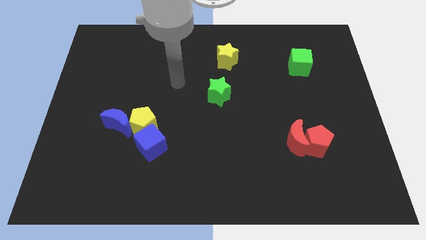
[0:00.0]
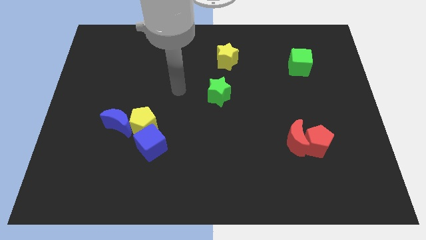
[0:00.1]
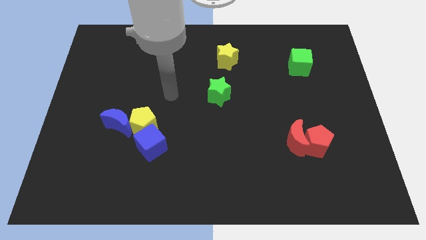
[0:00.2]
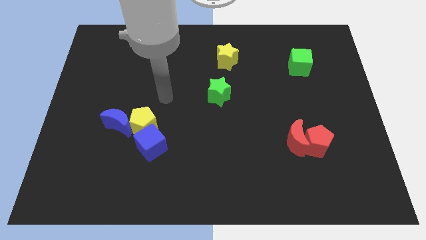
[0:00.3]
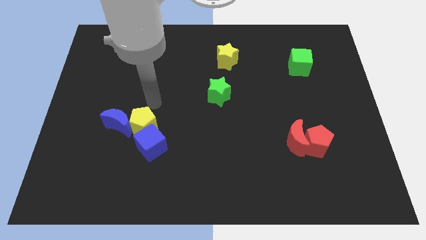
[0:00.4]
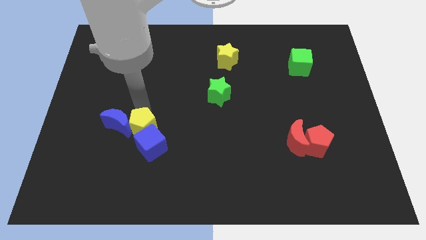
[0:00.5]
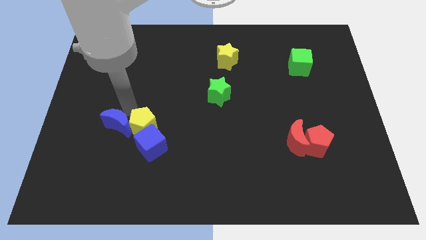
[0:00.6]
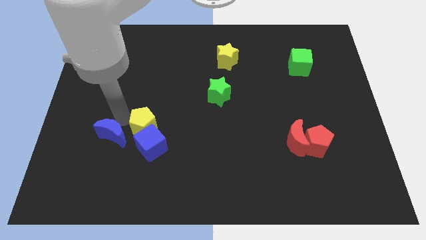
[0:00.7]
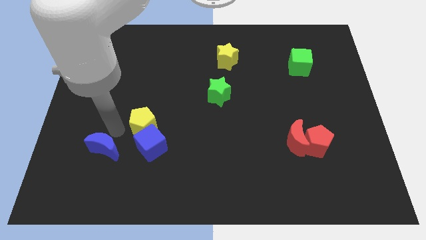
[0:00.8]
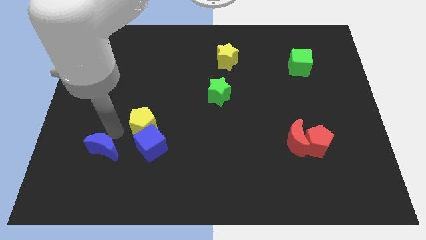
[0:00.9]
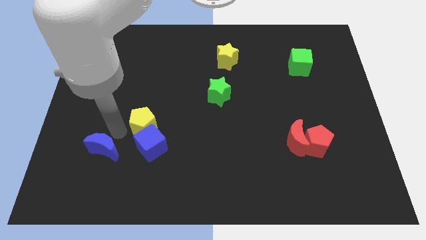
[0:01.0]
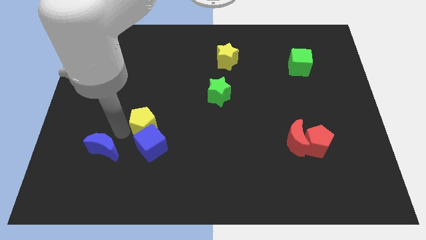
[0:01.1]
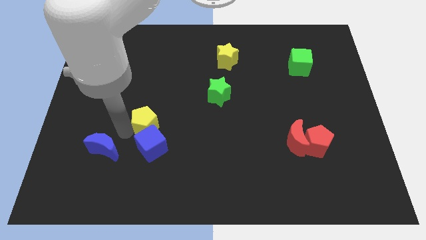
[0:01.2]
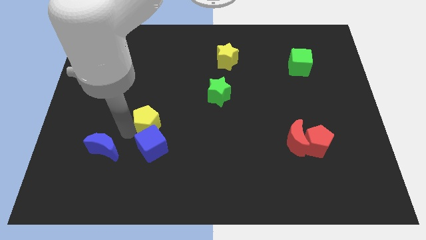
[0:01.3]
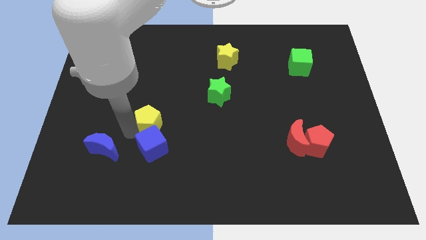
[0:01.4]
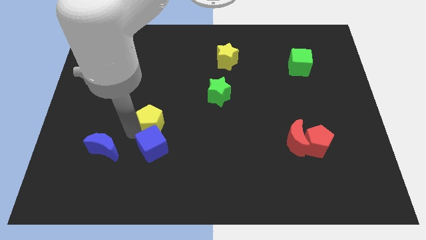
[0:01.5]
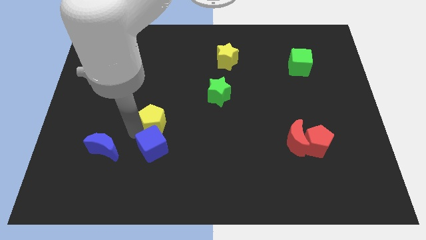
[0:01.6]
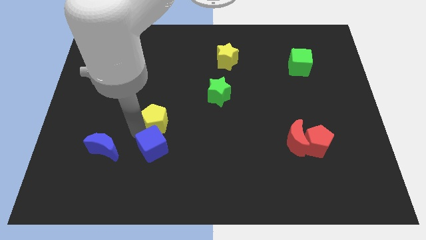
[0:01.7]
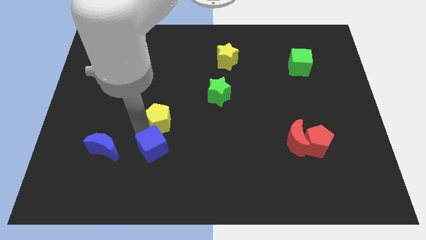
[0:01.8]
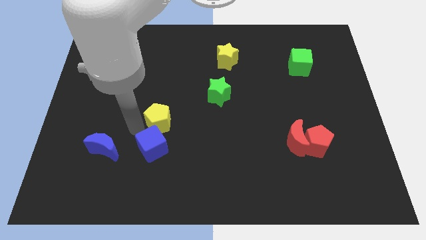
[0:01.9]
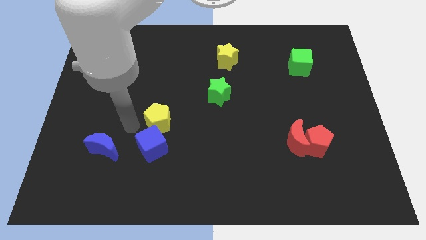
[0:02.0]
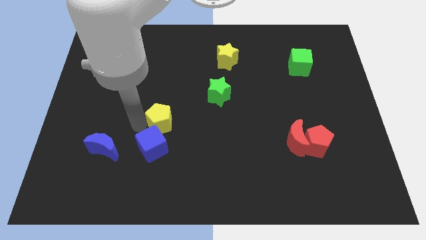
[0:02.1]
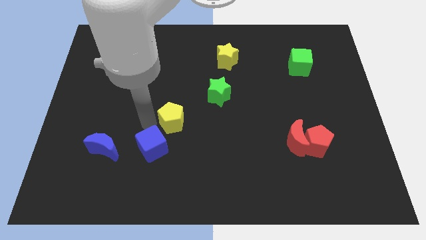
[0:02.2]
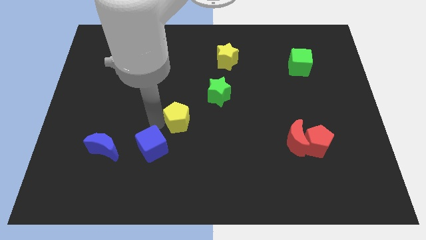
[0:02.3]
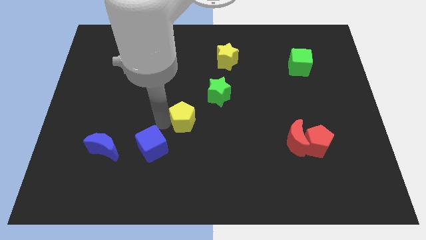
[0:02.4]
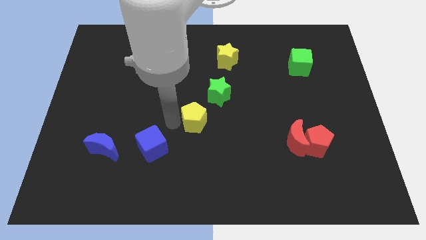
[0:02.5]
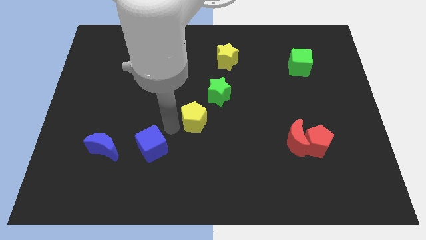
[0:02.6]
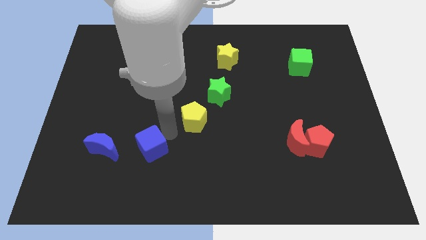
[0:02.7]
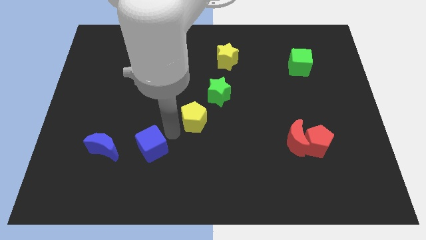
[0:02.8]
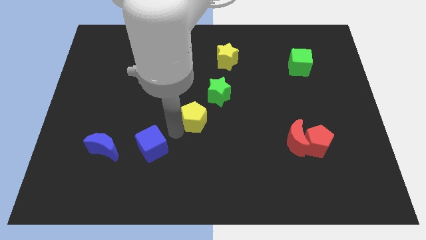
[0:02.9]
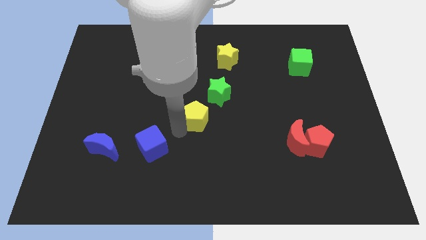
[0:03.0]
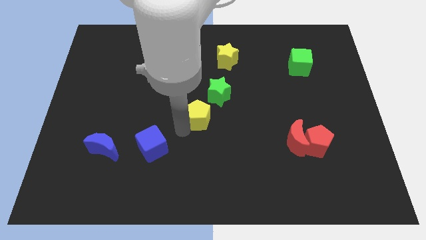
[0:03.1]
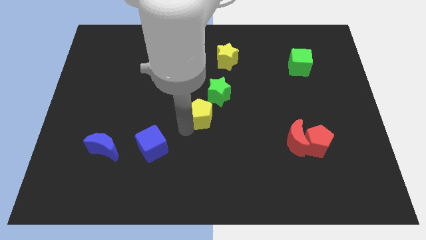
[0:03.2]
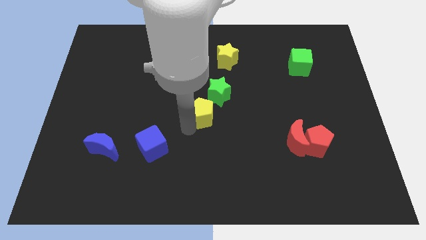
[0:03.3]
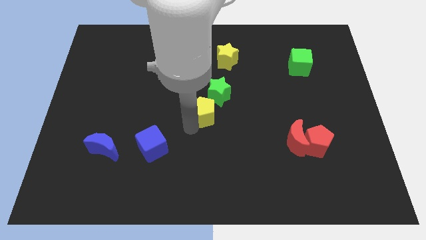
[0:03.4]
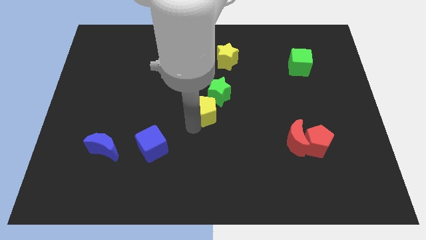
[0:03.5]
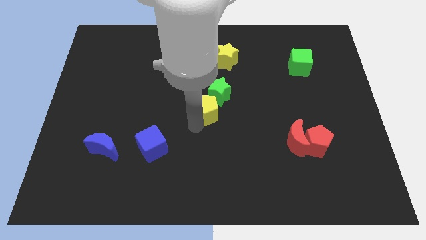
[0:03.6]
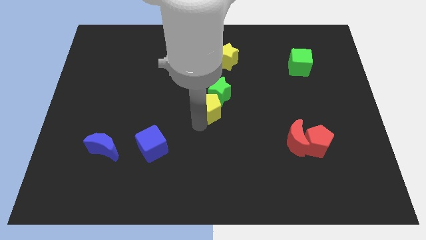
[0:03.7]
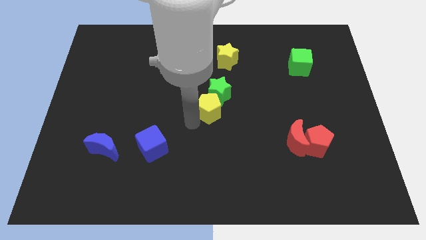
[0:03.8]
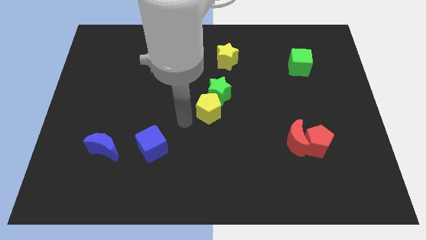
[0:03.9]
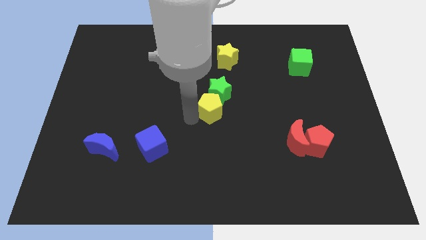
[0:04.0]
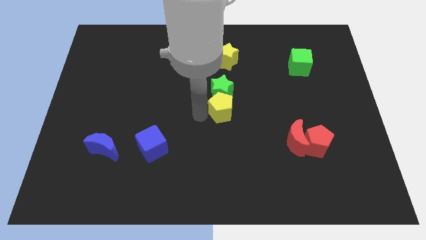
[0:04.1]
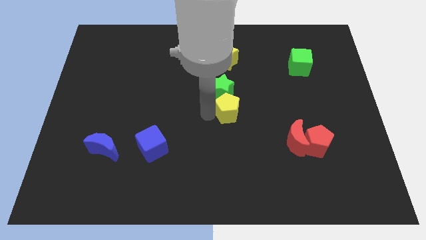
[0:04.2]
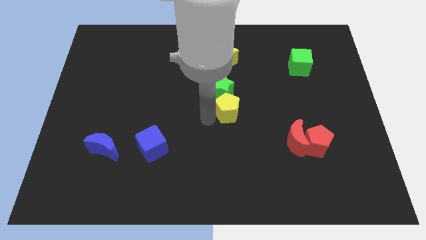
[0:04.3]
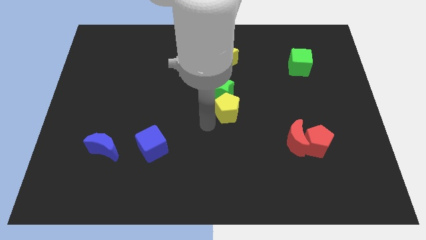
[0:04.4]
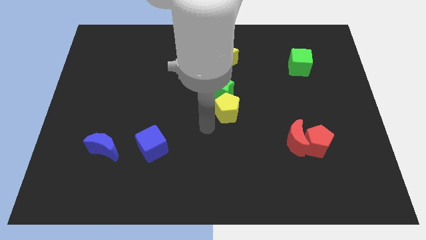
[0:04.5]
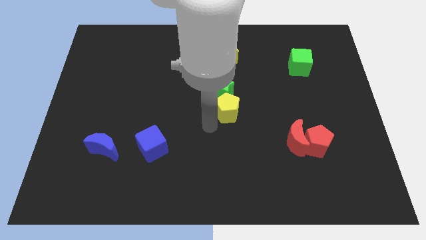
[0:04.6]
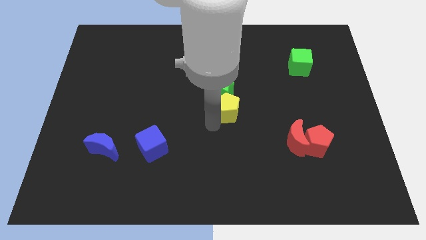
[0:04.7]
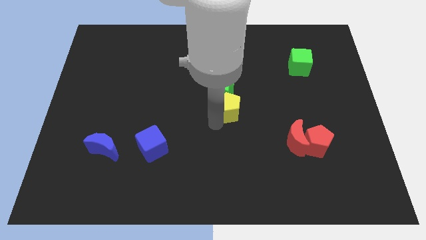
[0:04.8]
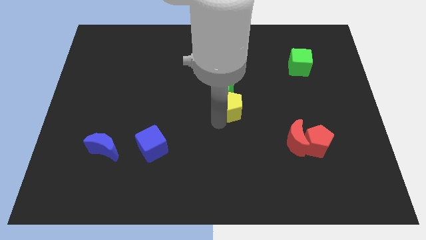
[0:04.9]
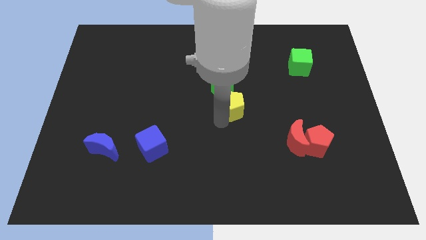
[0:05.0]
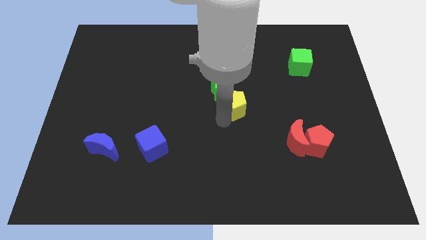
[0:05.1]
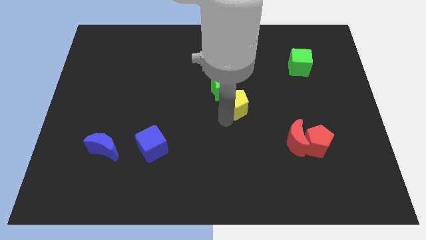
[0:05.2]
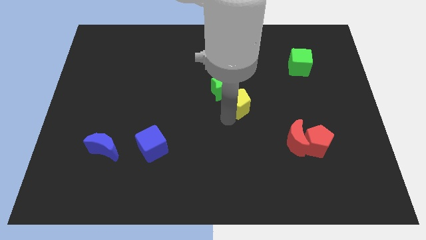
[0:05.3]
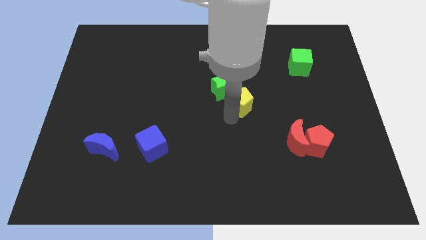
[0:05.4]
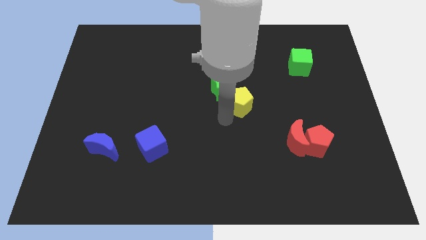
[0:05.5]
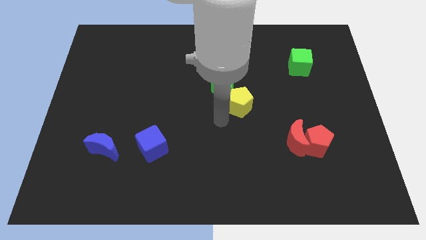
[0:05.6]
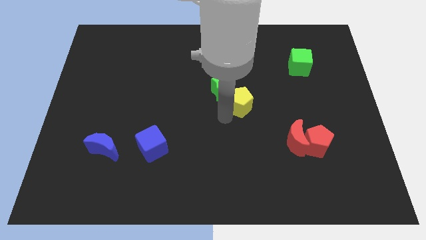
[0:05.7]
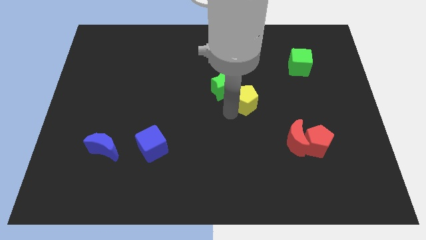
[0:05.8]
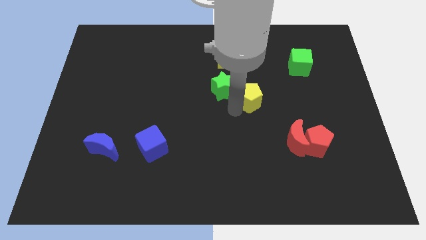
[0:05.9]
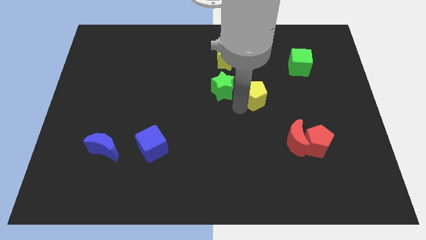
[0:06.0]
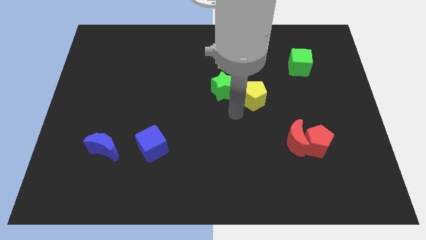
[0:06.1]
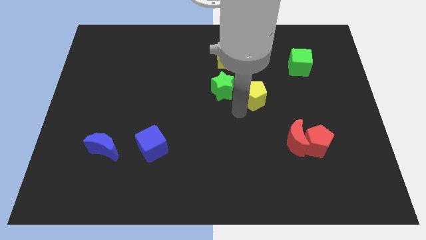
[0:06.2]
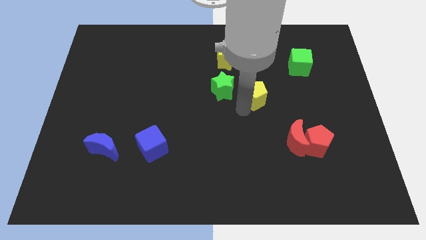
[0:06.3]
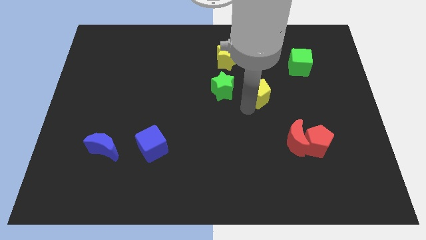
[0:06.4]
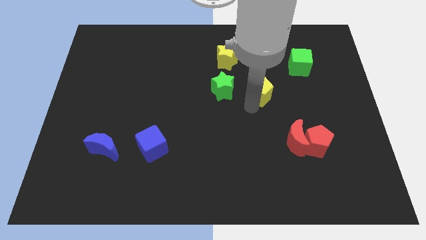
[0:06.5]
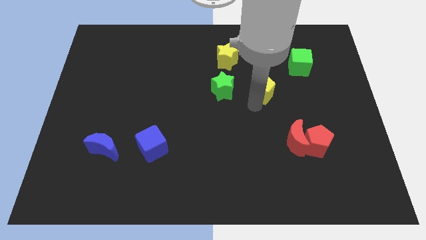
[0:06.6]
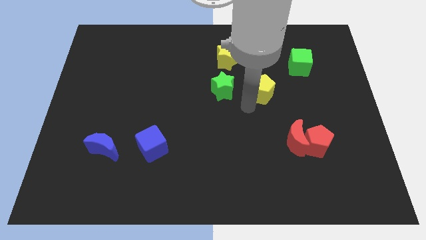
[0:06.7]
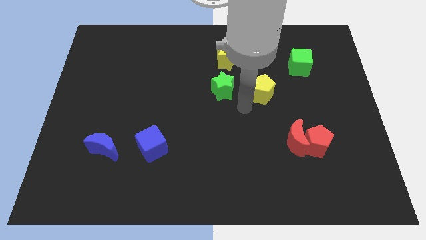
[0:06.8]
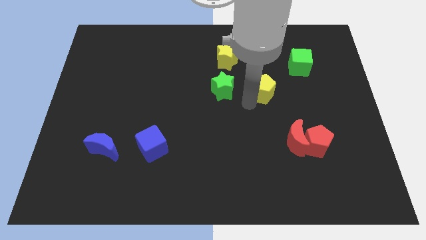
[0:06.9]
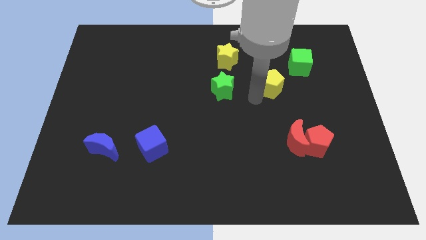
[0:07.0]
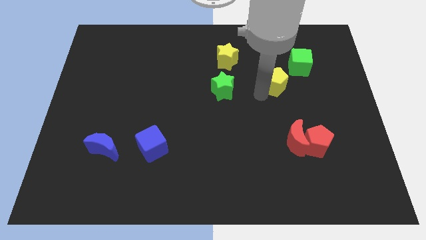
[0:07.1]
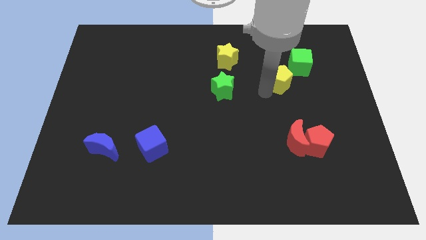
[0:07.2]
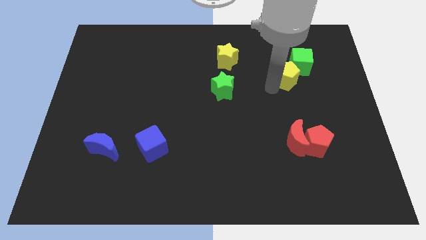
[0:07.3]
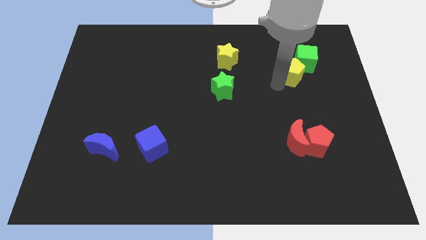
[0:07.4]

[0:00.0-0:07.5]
push the yellow pentagon close to the green cube
